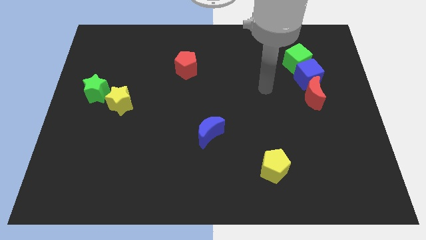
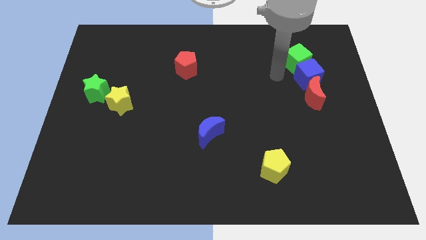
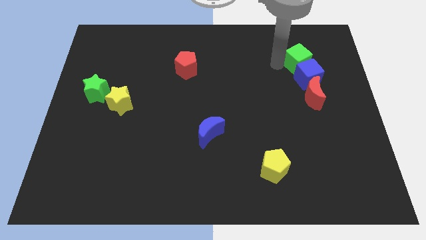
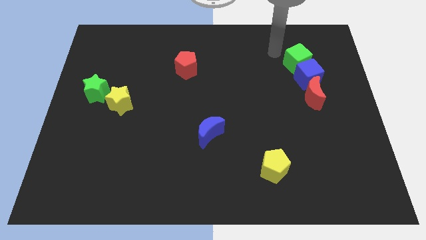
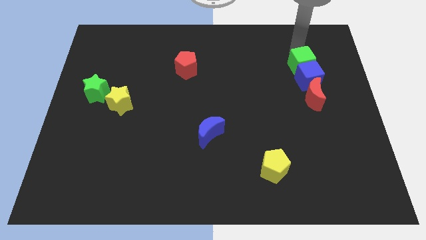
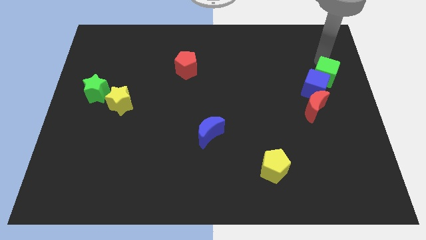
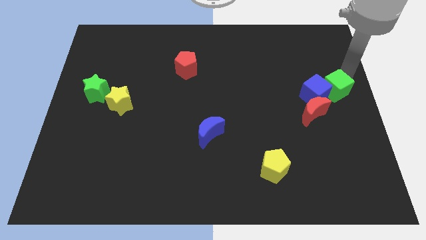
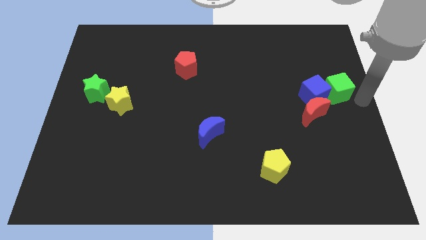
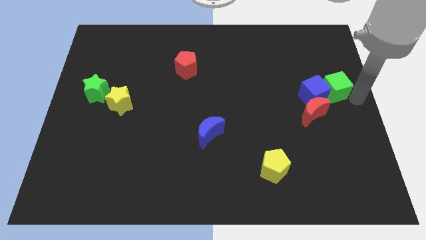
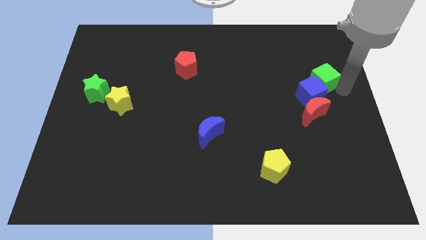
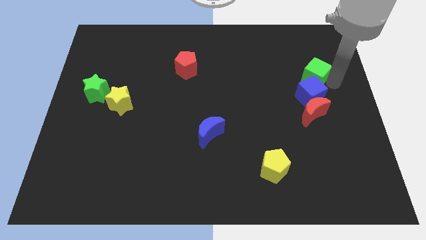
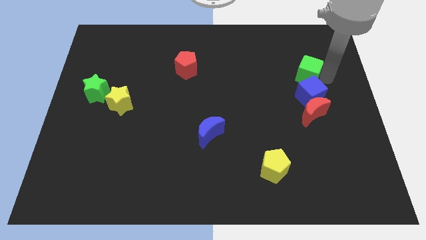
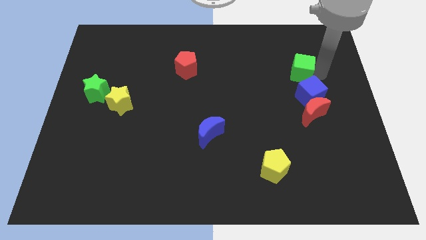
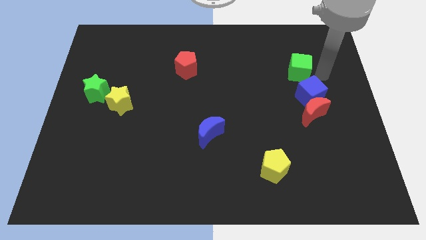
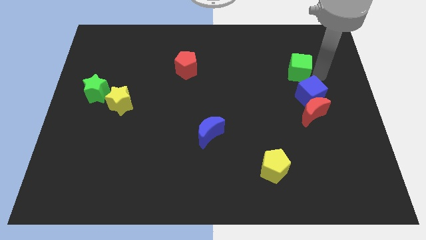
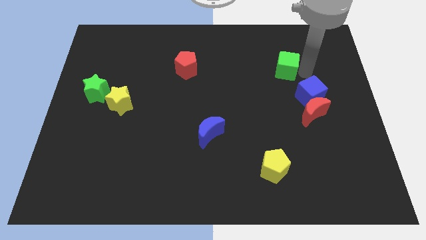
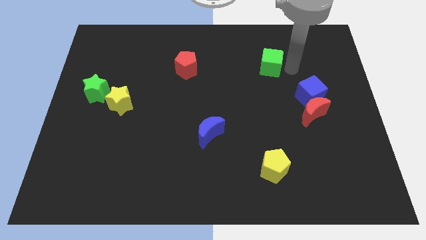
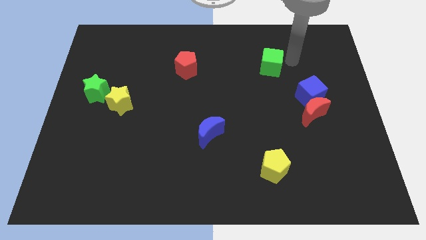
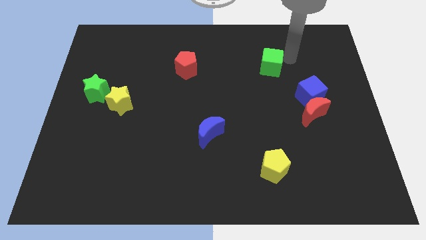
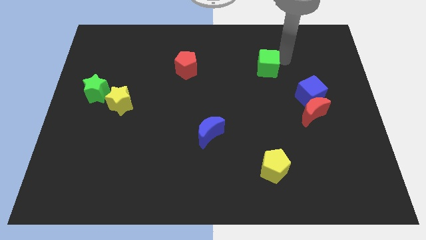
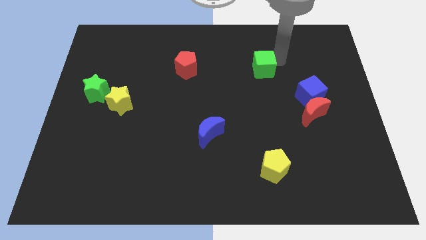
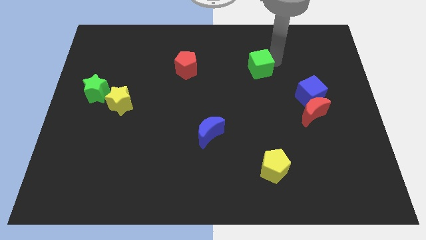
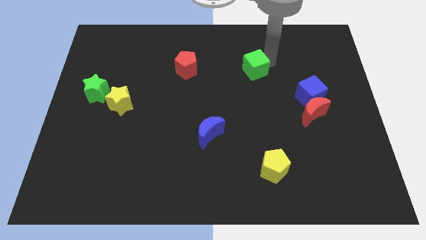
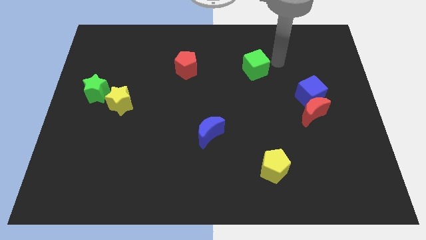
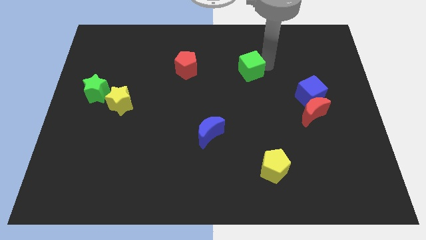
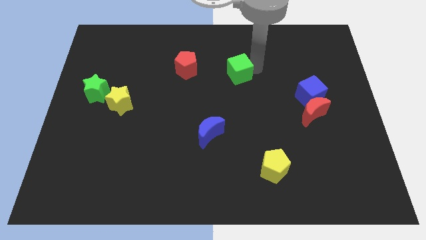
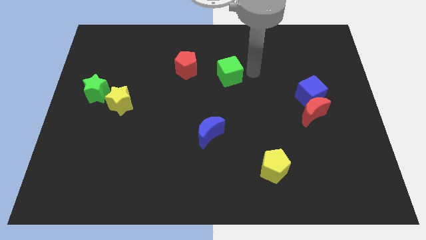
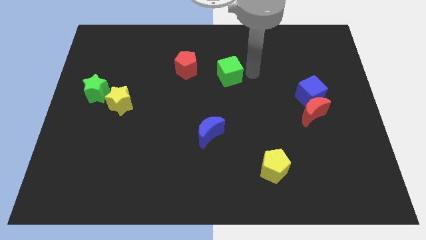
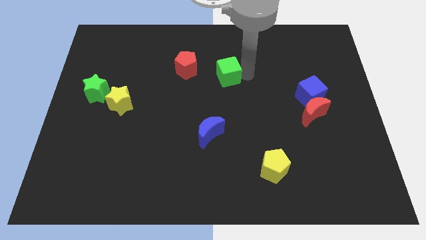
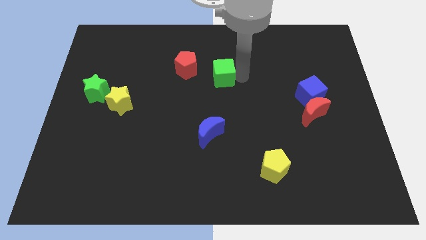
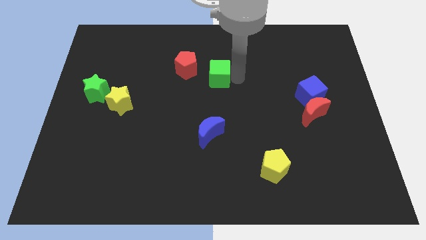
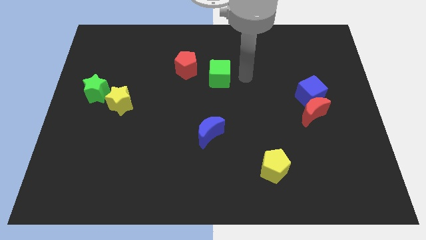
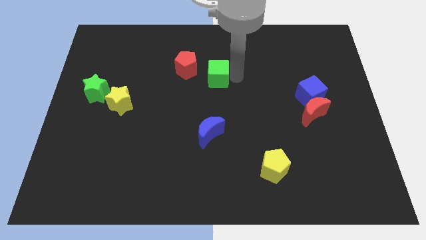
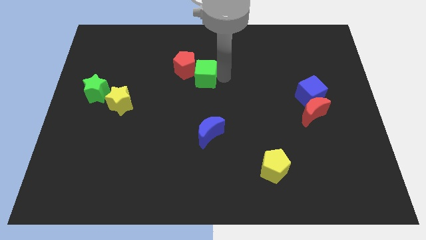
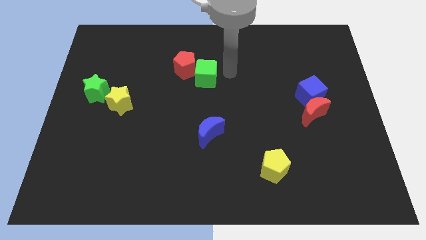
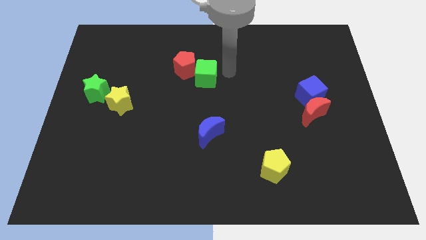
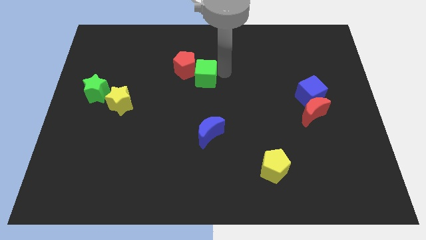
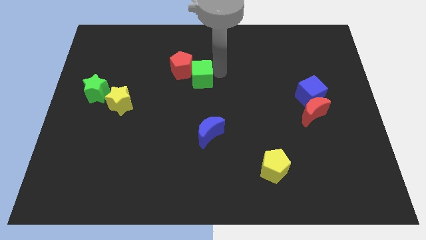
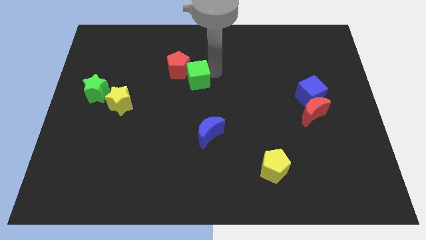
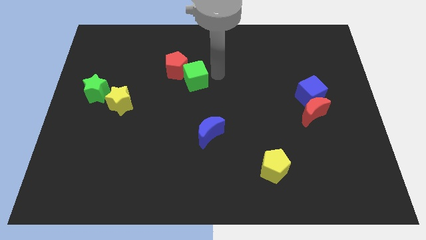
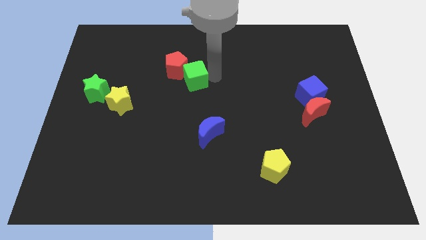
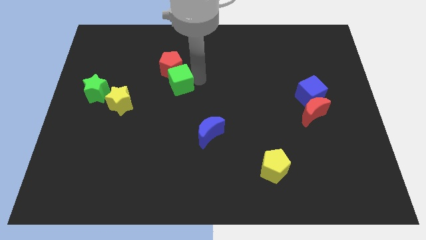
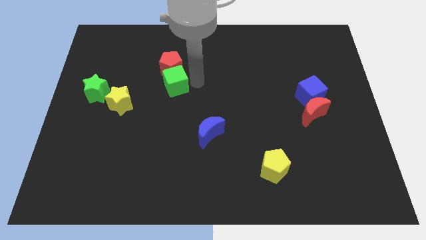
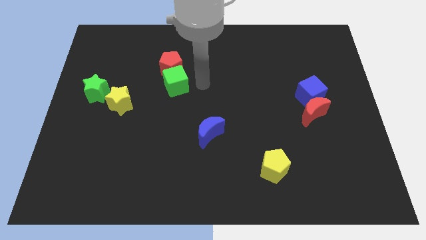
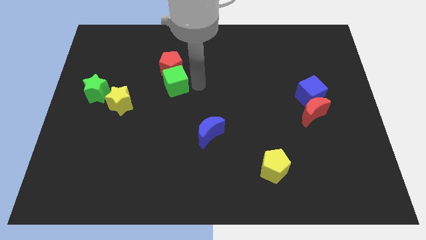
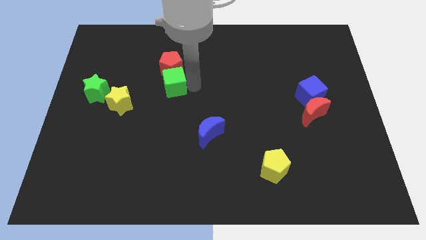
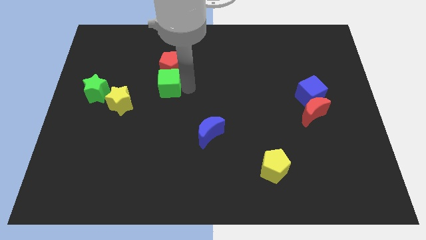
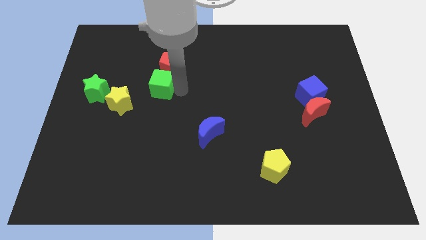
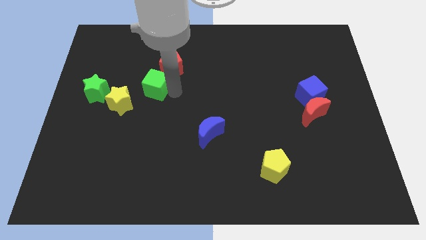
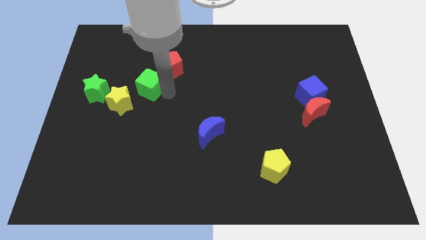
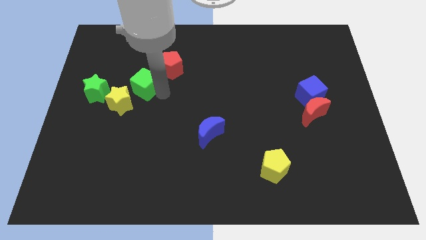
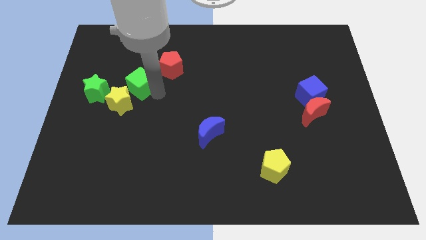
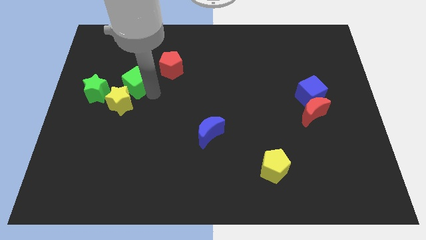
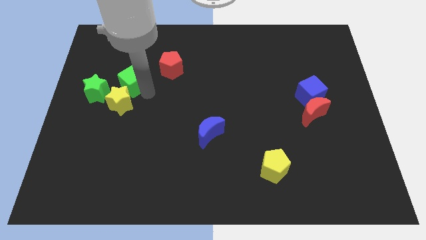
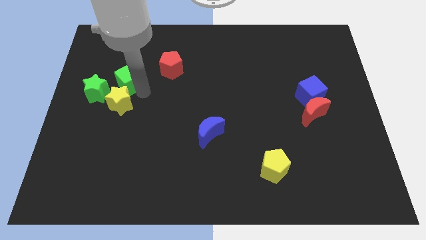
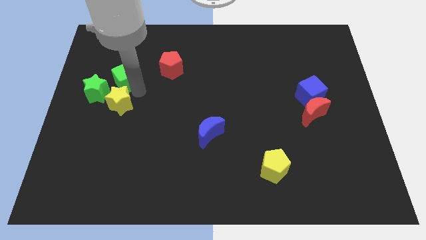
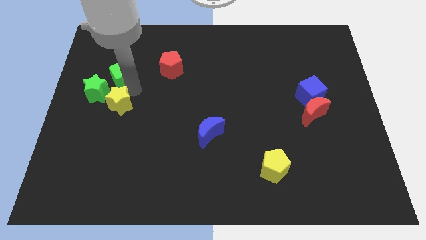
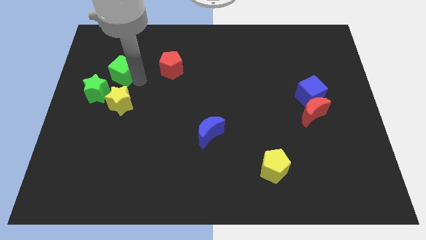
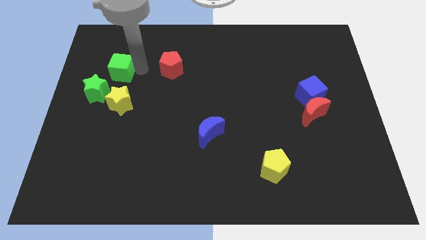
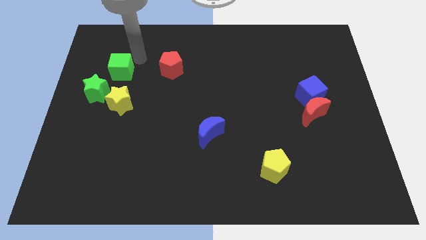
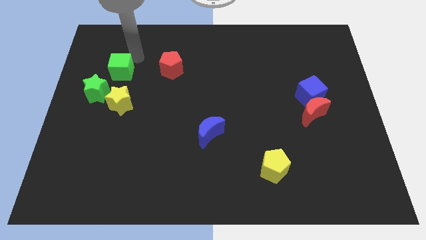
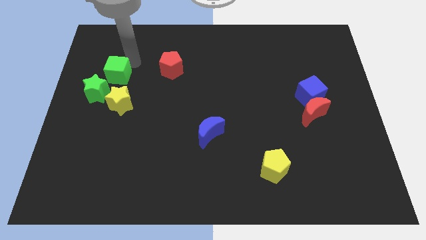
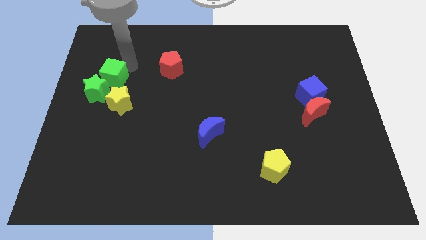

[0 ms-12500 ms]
slide the green cube close to the green star

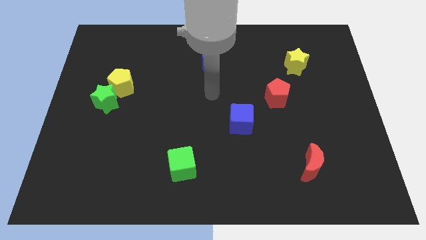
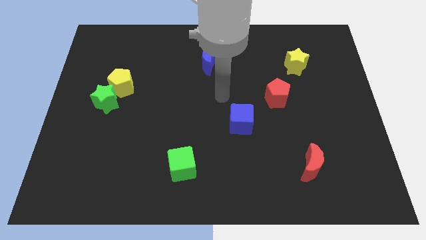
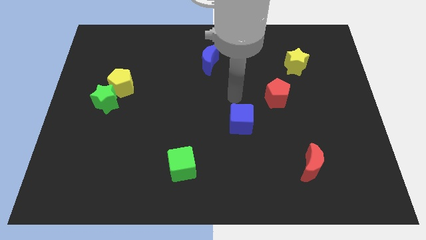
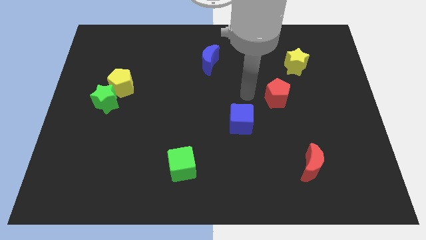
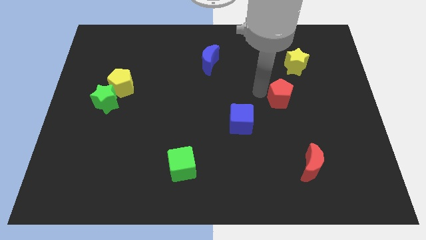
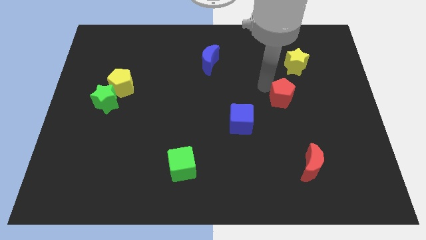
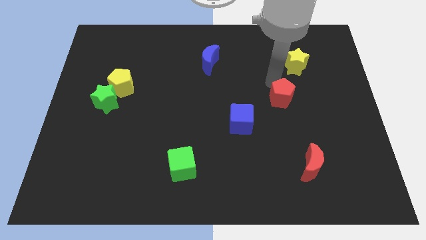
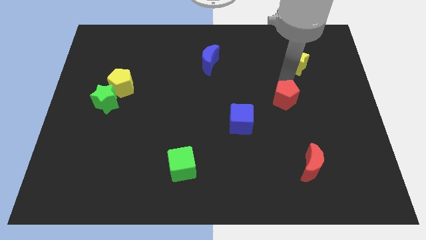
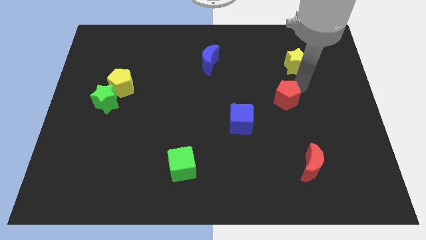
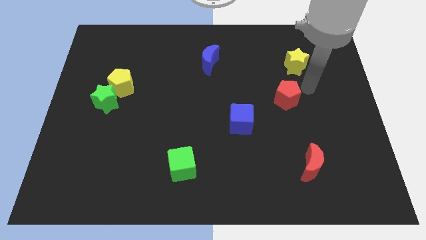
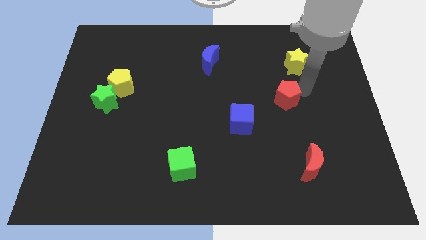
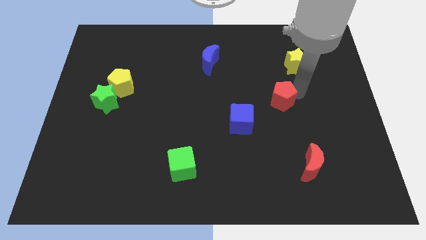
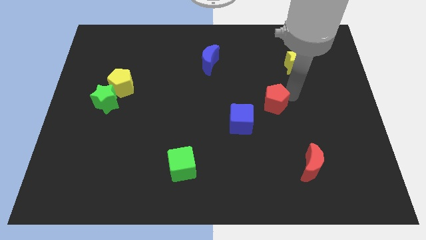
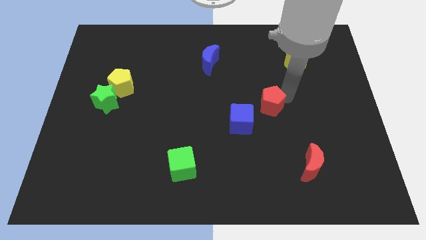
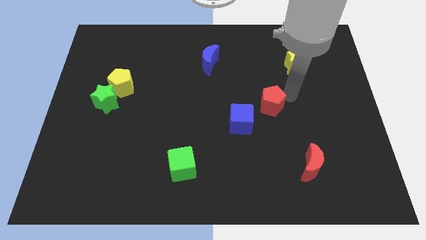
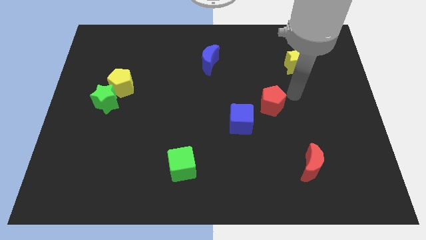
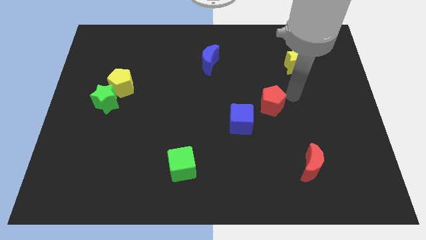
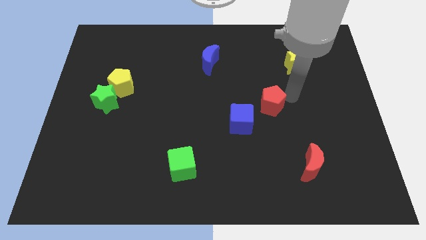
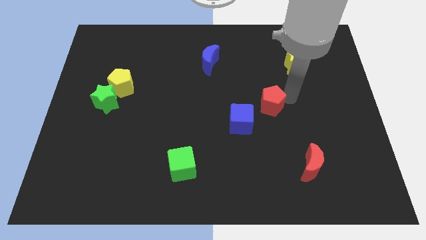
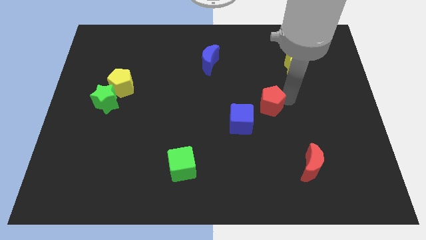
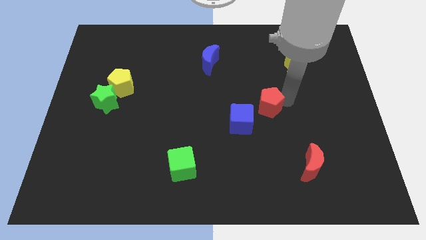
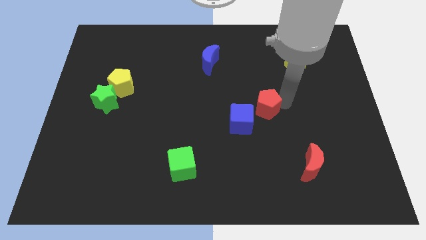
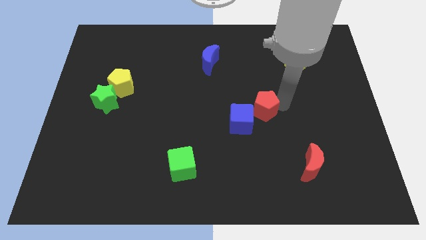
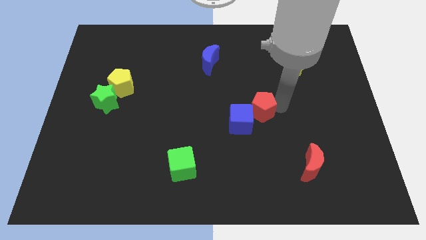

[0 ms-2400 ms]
push the red pentagon towards the blue cube
